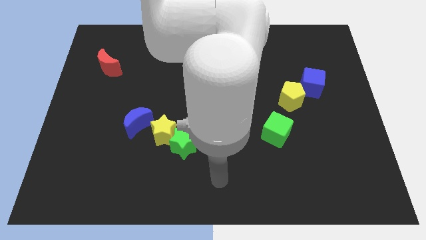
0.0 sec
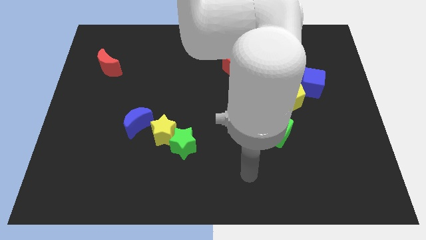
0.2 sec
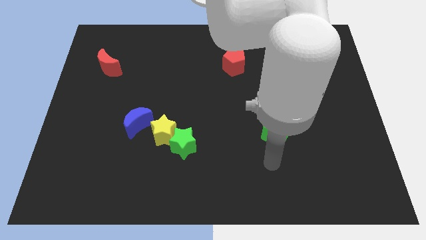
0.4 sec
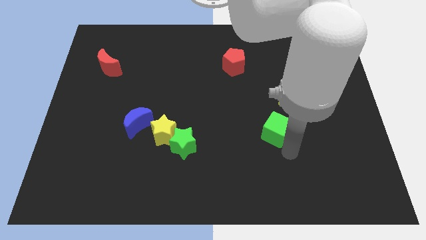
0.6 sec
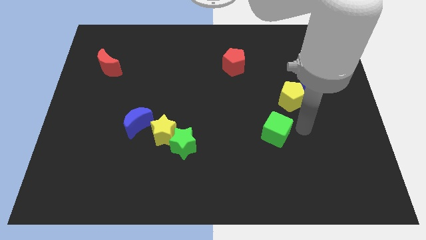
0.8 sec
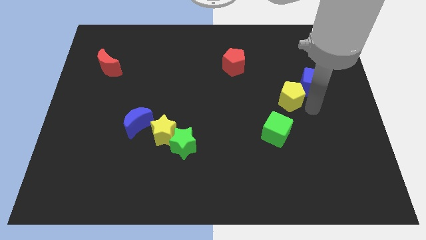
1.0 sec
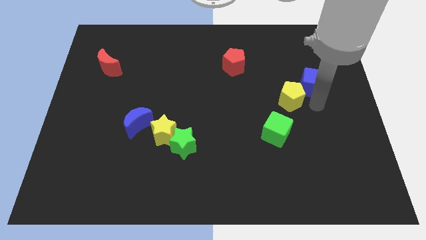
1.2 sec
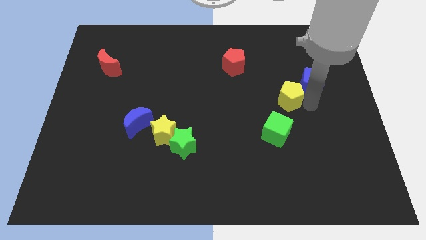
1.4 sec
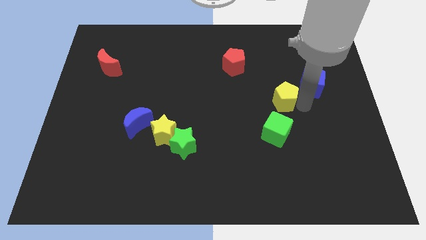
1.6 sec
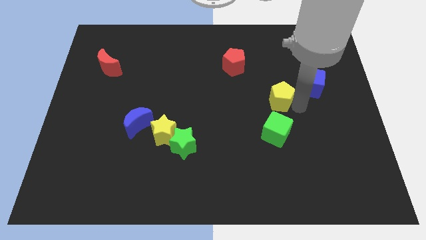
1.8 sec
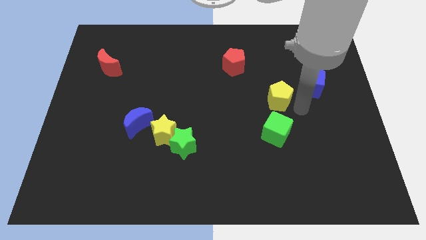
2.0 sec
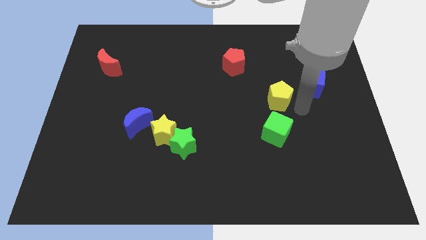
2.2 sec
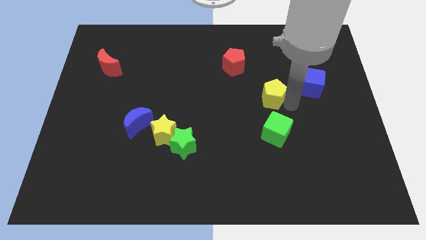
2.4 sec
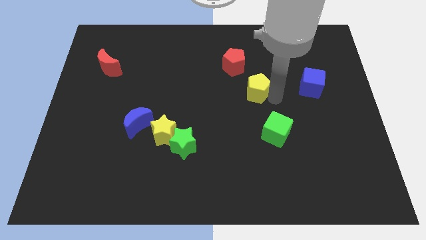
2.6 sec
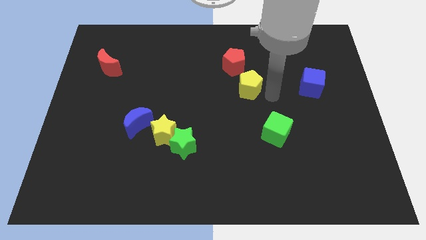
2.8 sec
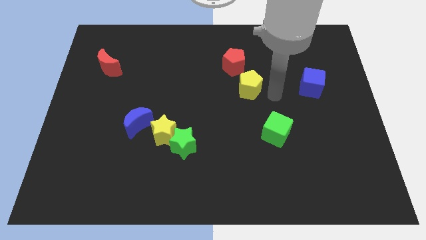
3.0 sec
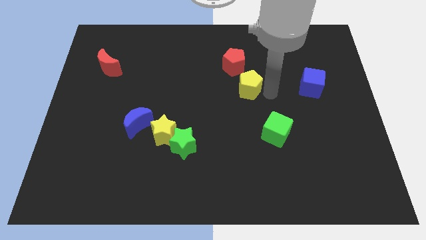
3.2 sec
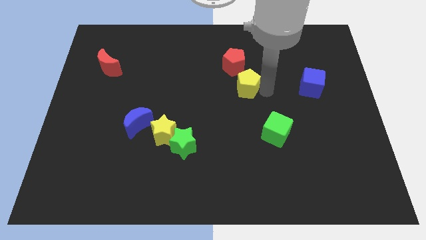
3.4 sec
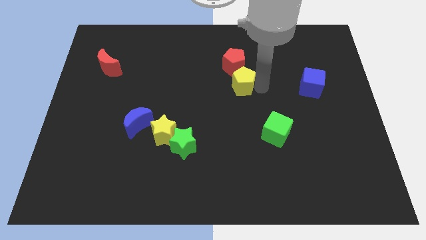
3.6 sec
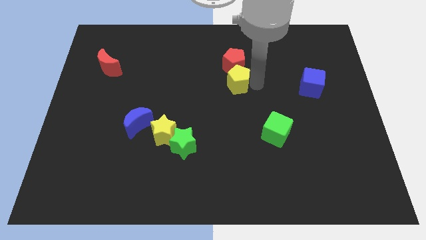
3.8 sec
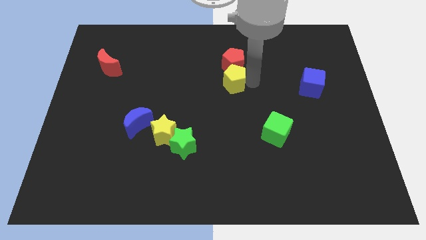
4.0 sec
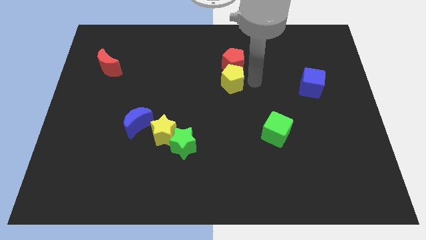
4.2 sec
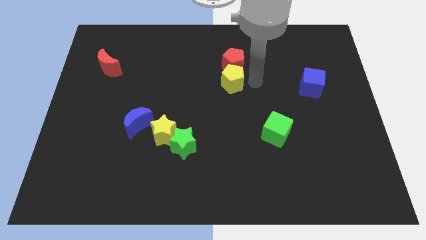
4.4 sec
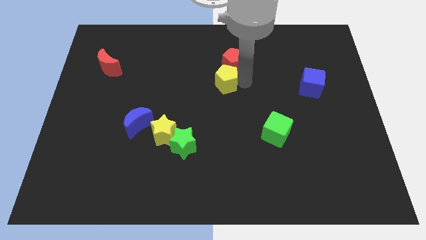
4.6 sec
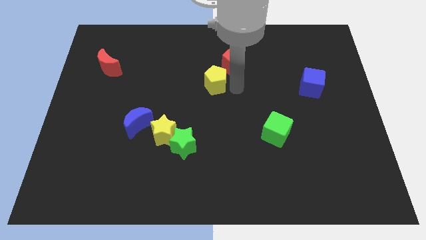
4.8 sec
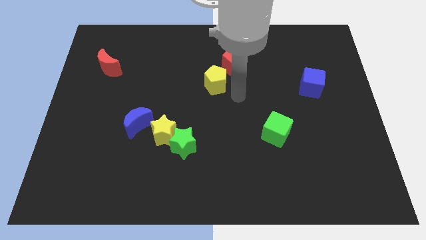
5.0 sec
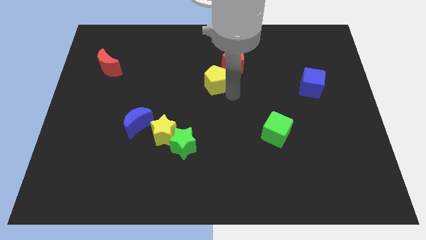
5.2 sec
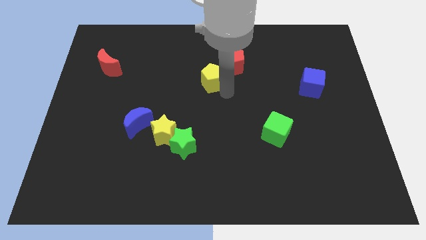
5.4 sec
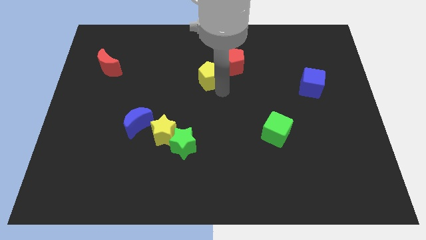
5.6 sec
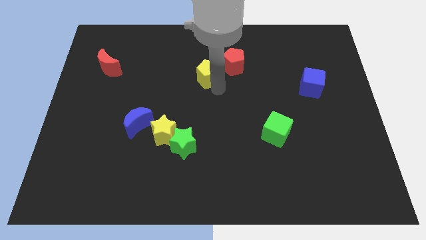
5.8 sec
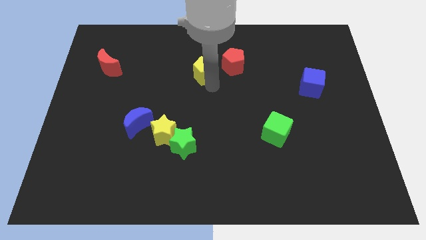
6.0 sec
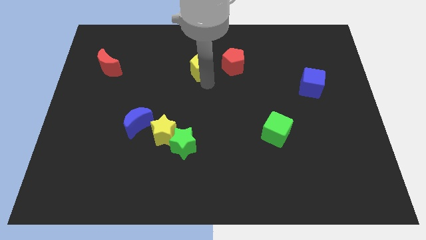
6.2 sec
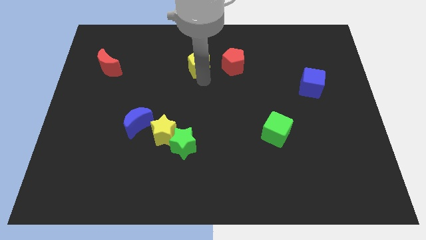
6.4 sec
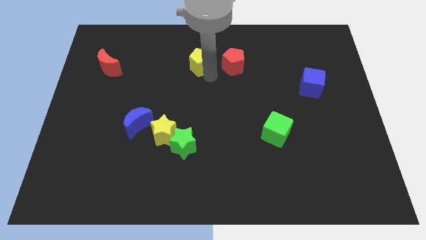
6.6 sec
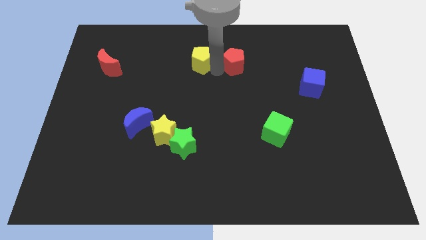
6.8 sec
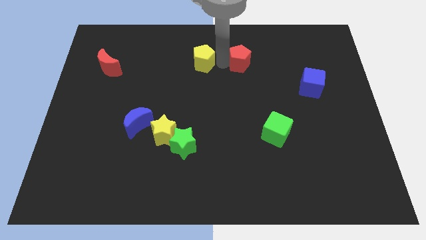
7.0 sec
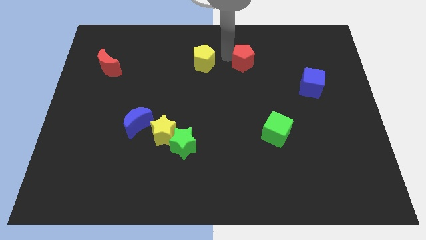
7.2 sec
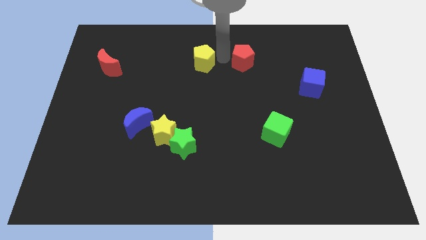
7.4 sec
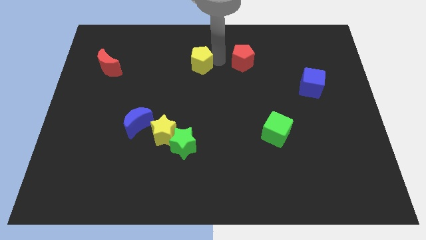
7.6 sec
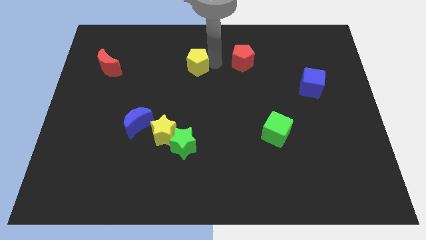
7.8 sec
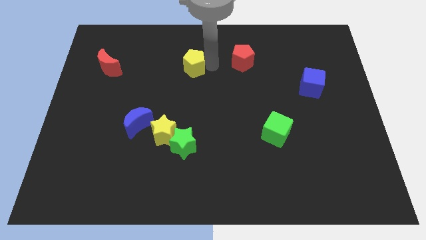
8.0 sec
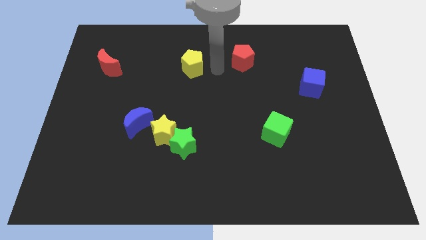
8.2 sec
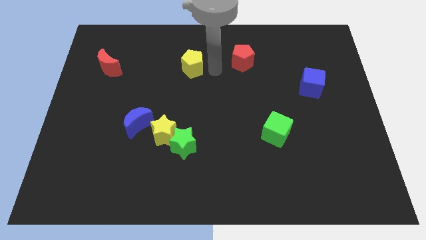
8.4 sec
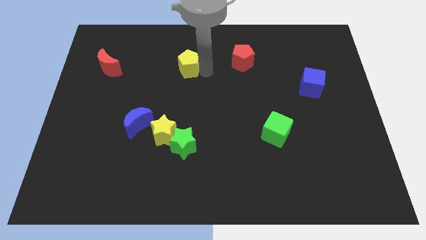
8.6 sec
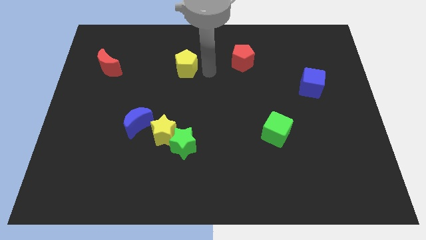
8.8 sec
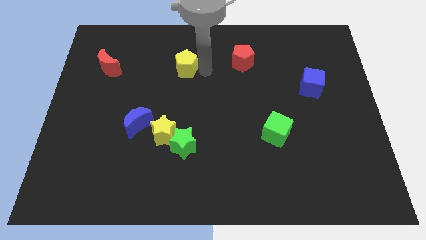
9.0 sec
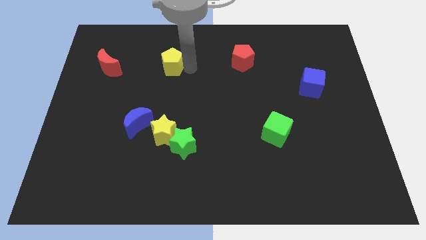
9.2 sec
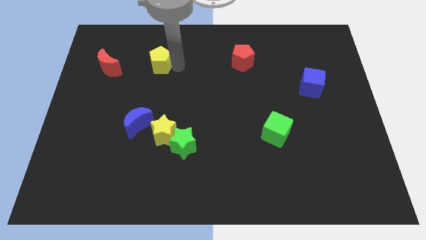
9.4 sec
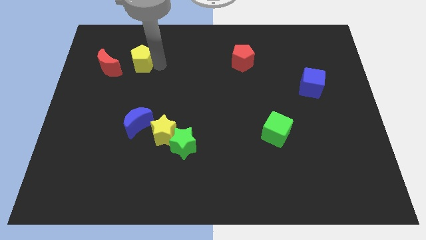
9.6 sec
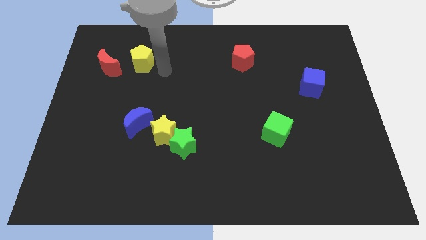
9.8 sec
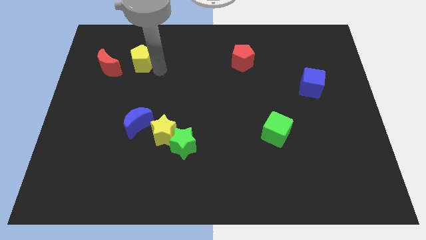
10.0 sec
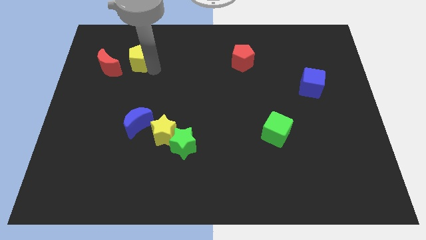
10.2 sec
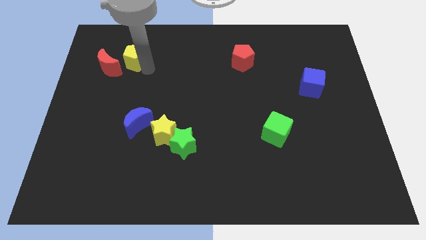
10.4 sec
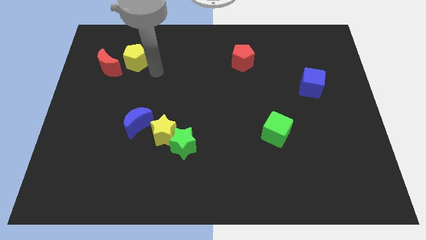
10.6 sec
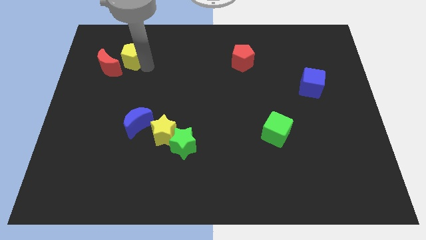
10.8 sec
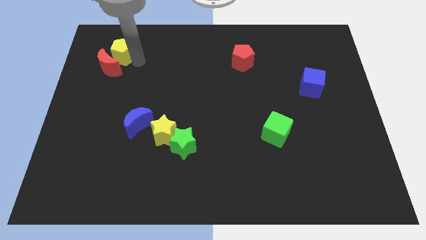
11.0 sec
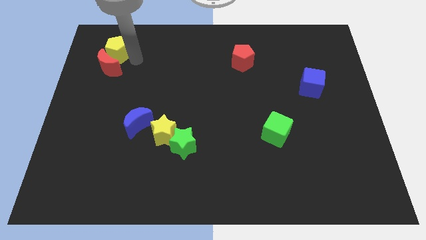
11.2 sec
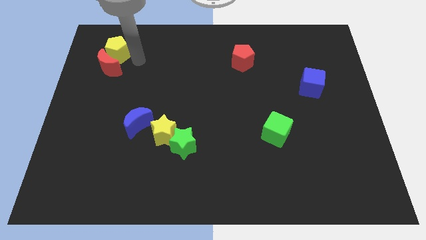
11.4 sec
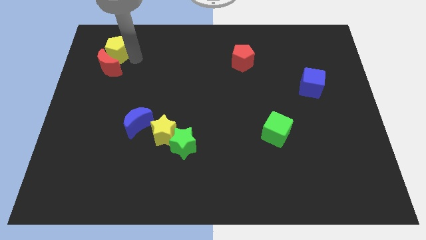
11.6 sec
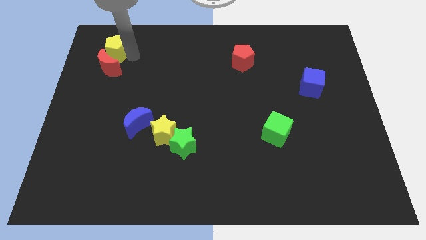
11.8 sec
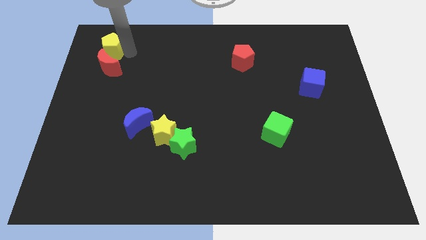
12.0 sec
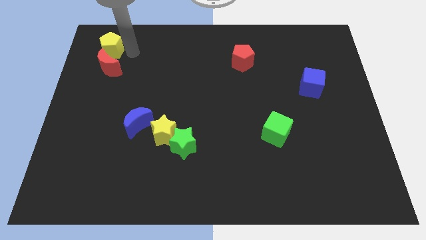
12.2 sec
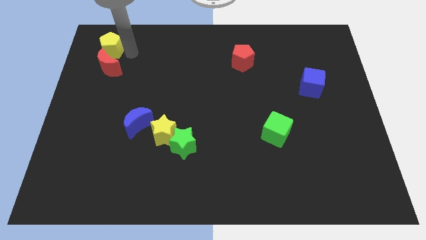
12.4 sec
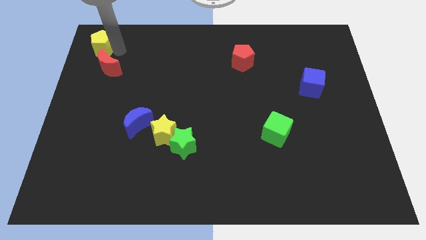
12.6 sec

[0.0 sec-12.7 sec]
slide the yellow pentagon to the top left of the board

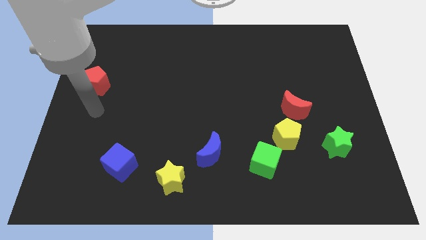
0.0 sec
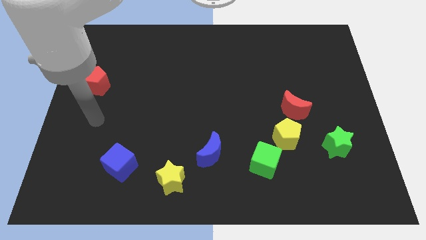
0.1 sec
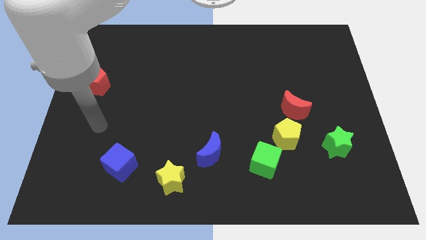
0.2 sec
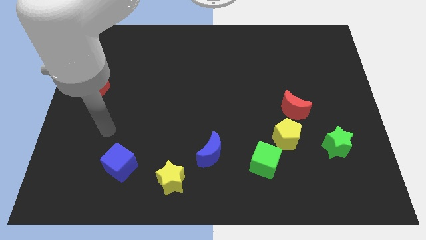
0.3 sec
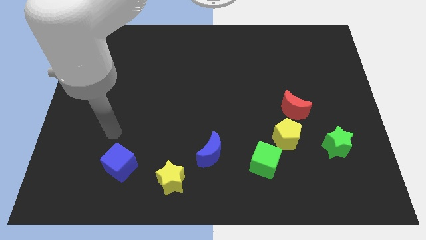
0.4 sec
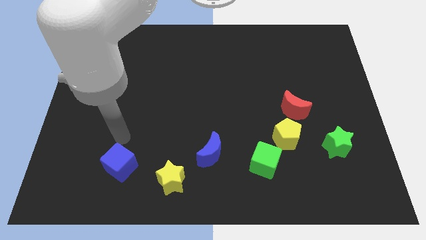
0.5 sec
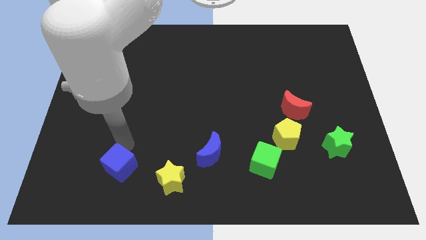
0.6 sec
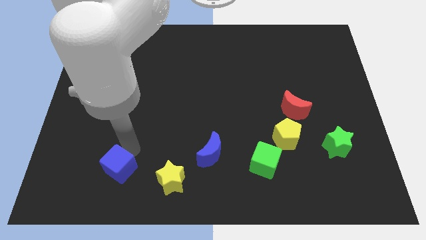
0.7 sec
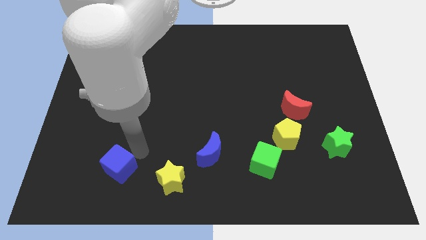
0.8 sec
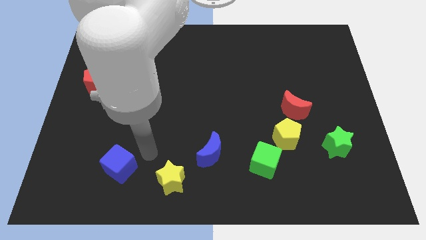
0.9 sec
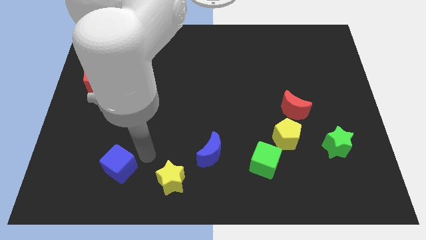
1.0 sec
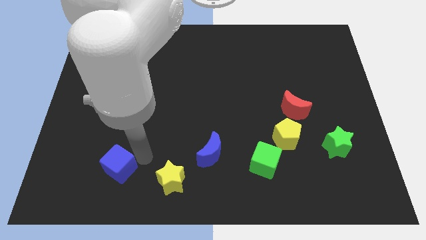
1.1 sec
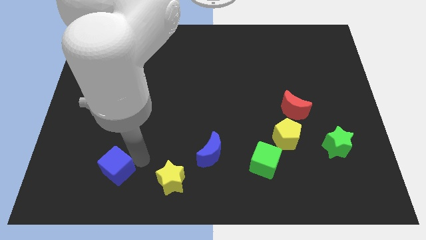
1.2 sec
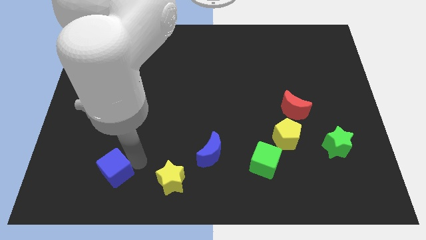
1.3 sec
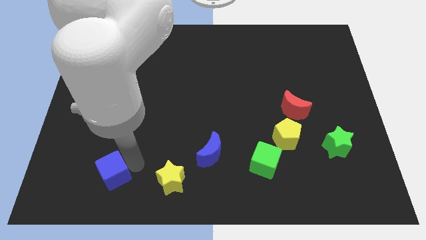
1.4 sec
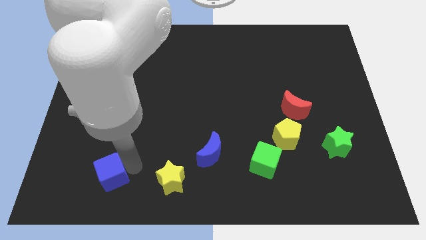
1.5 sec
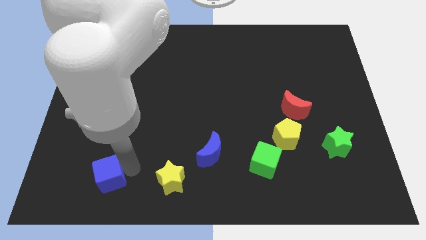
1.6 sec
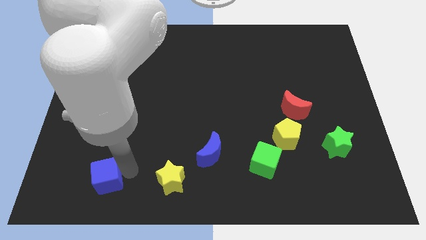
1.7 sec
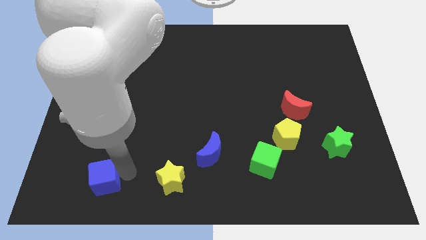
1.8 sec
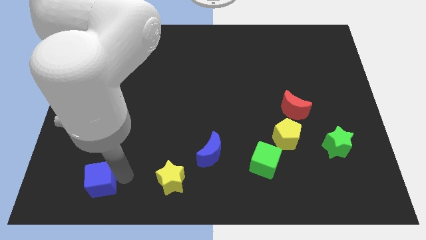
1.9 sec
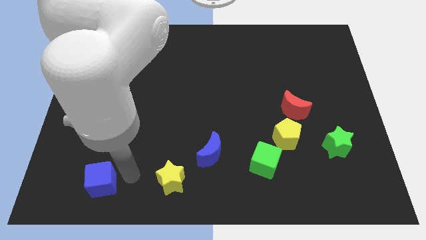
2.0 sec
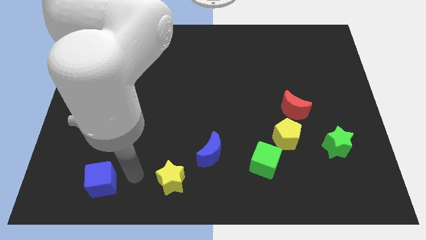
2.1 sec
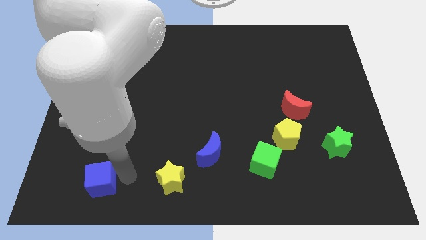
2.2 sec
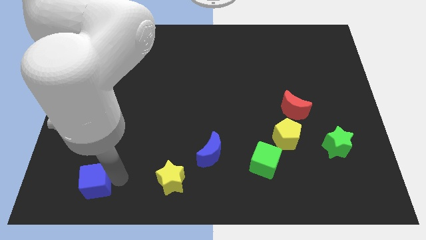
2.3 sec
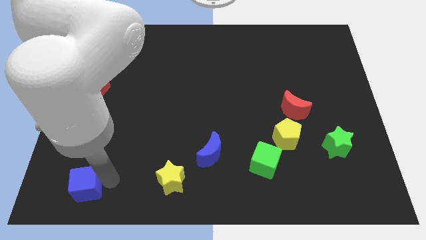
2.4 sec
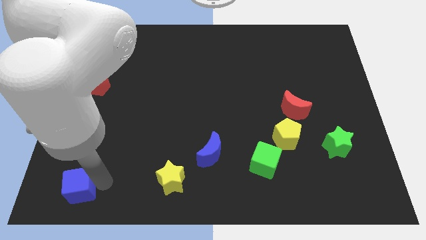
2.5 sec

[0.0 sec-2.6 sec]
slide the blue cube to the bottom left of the board
